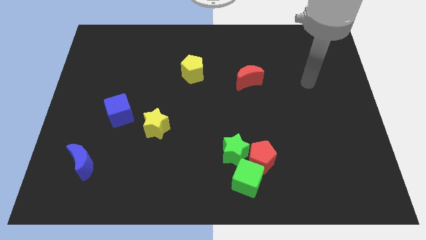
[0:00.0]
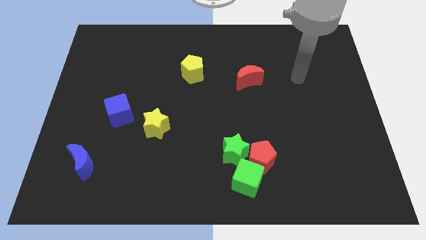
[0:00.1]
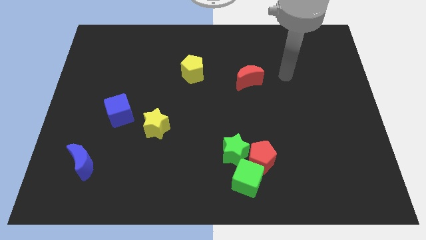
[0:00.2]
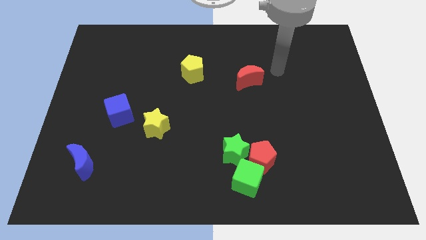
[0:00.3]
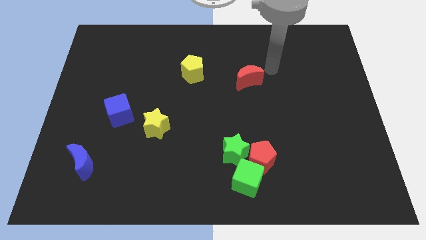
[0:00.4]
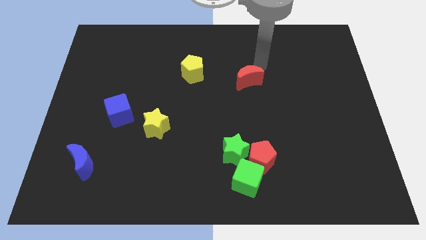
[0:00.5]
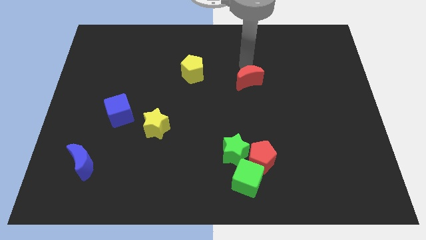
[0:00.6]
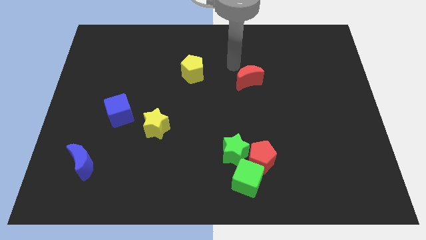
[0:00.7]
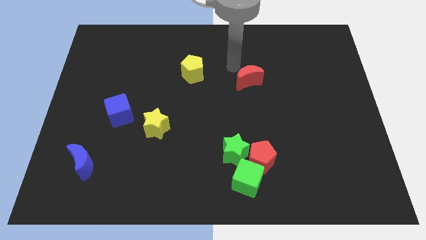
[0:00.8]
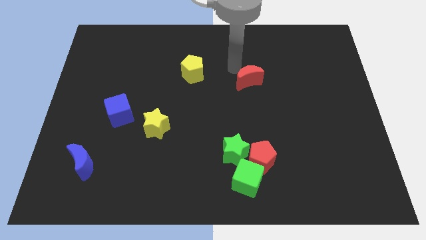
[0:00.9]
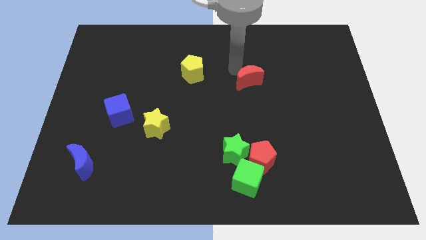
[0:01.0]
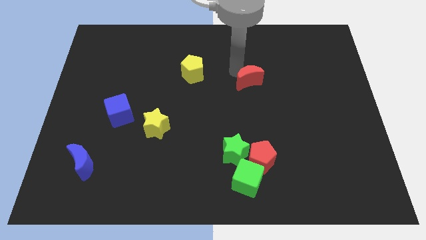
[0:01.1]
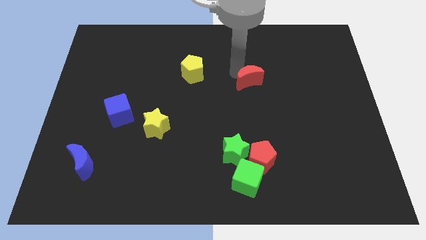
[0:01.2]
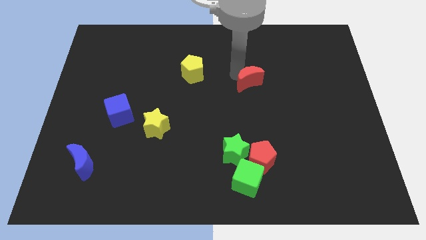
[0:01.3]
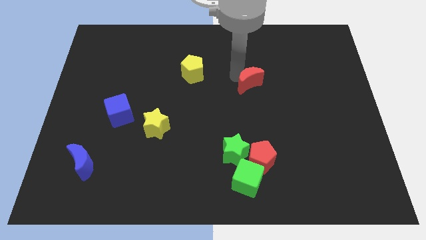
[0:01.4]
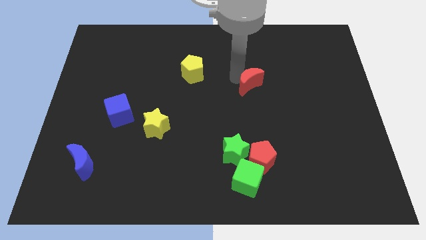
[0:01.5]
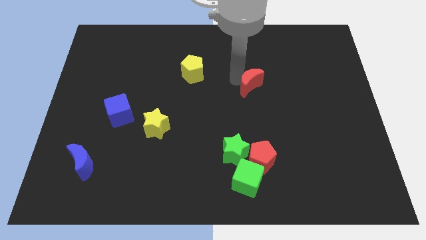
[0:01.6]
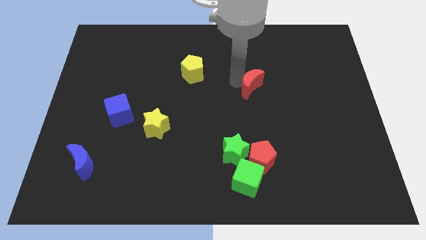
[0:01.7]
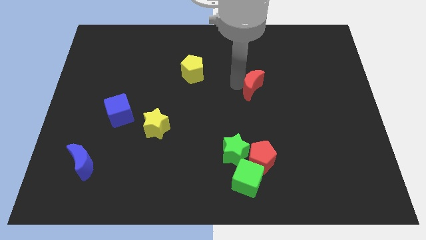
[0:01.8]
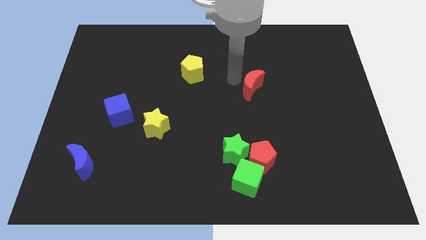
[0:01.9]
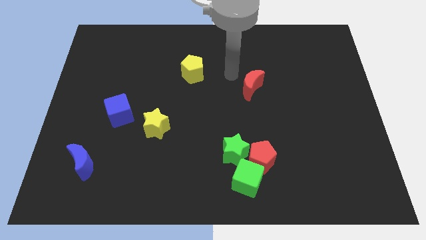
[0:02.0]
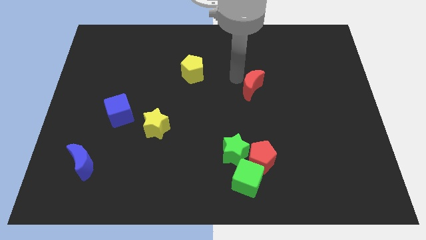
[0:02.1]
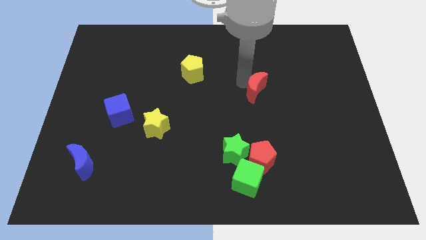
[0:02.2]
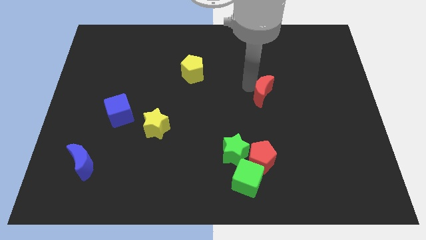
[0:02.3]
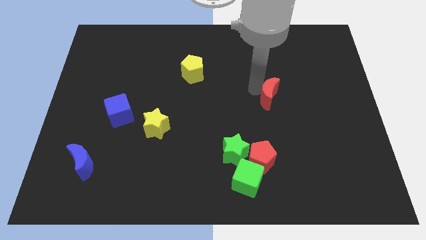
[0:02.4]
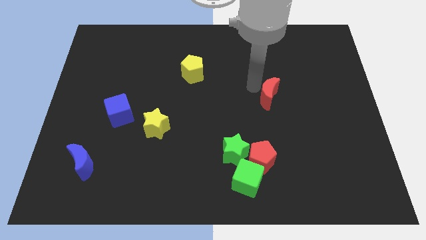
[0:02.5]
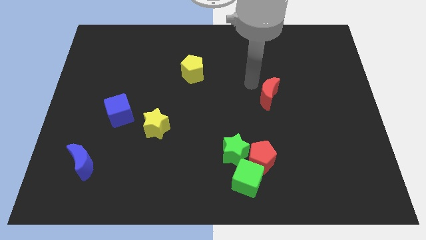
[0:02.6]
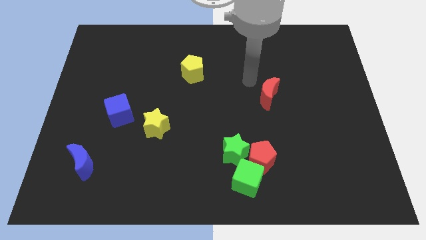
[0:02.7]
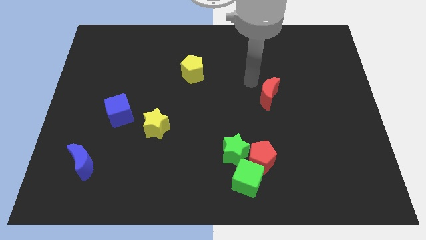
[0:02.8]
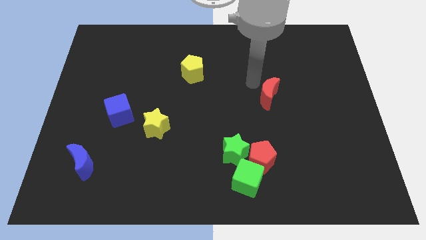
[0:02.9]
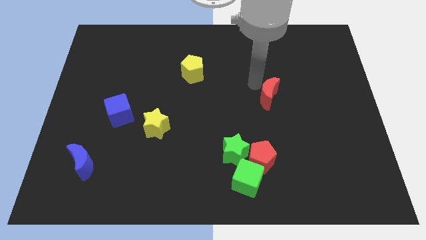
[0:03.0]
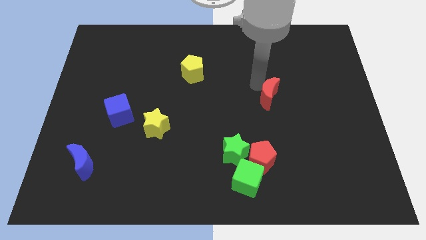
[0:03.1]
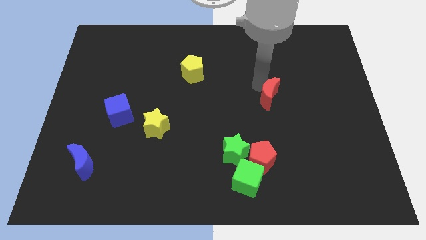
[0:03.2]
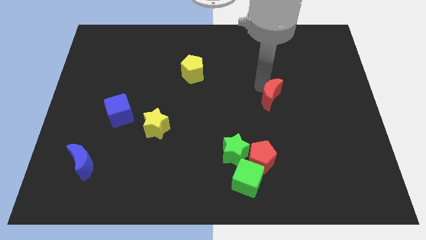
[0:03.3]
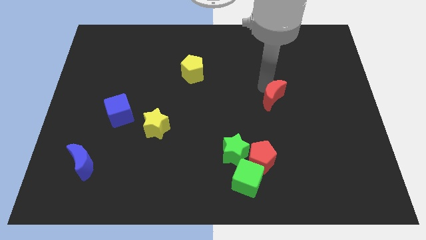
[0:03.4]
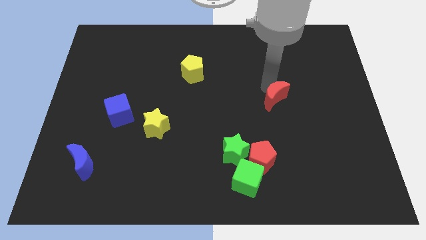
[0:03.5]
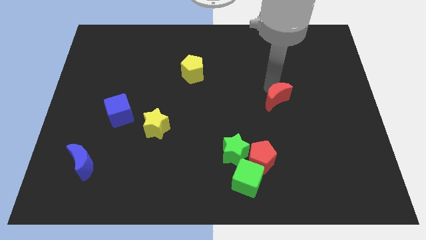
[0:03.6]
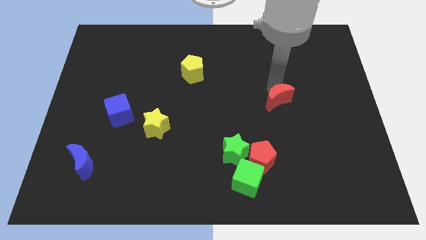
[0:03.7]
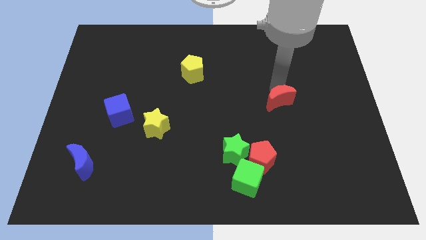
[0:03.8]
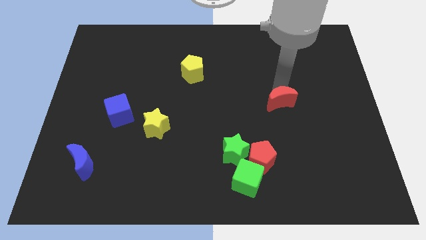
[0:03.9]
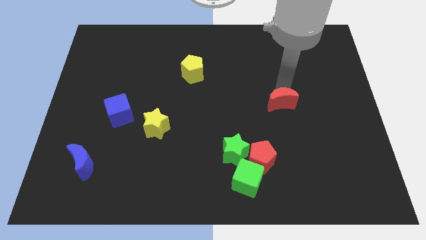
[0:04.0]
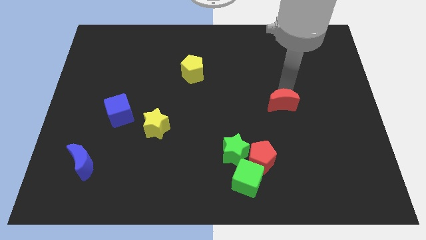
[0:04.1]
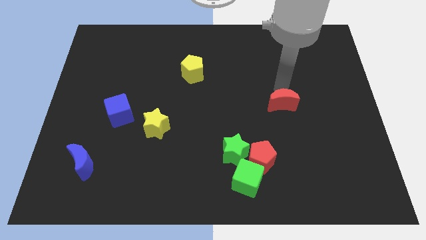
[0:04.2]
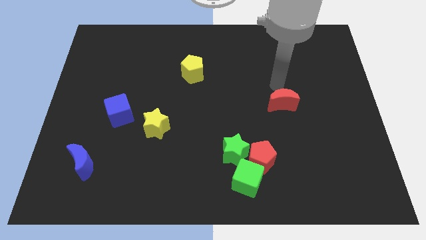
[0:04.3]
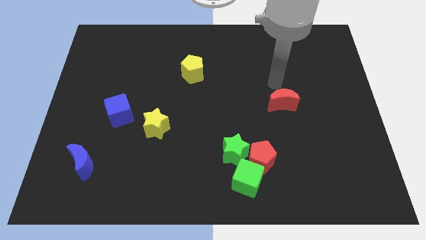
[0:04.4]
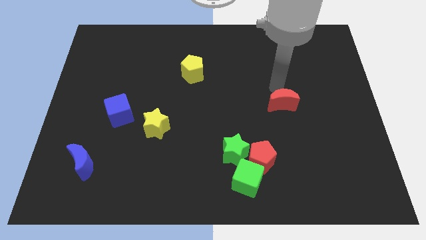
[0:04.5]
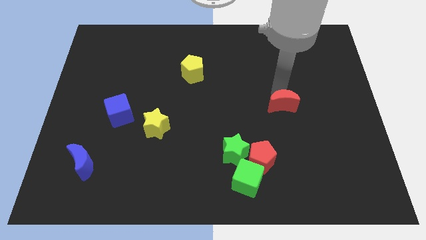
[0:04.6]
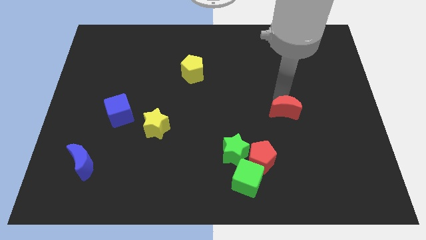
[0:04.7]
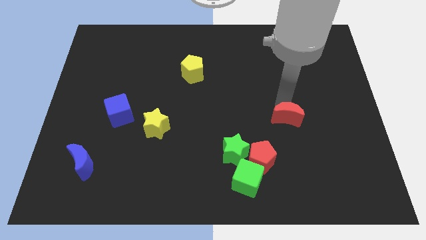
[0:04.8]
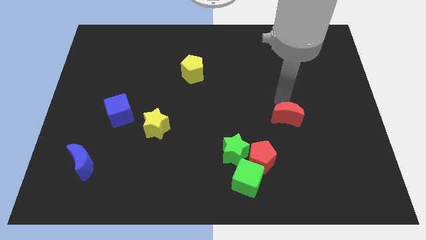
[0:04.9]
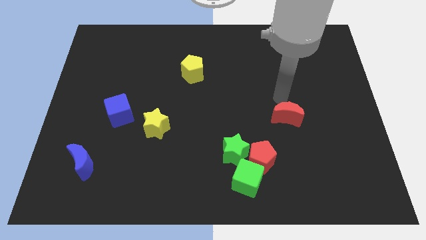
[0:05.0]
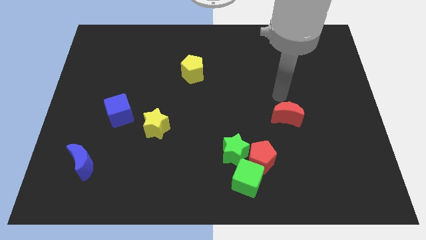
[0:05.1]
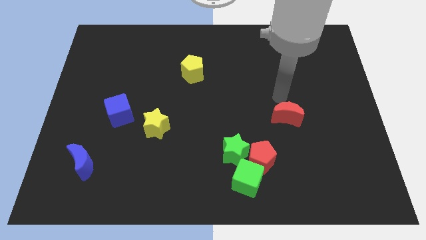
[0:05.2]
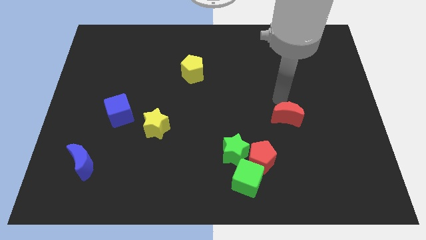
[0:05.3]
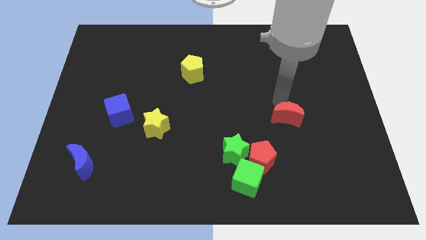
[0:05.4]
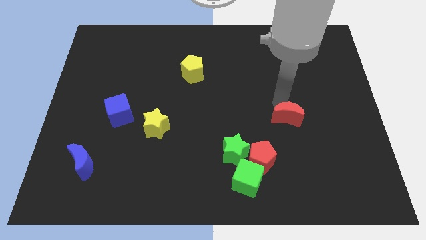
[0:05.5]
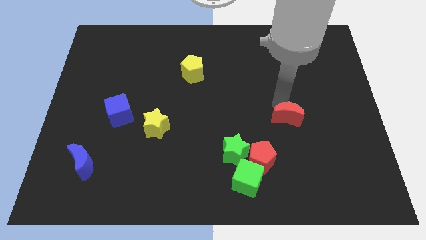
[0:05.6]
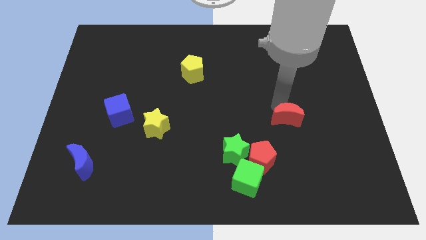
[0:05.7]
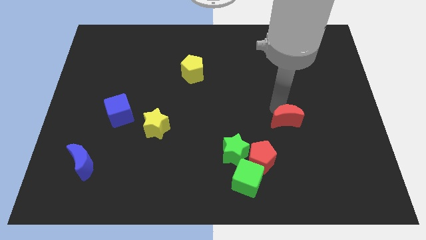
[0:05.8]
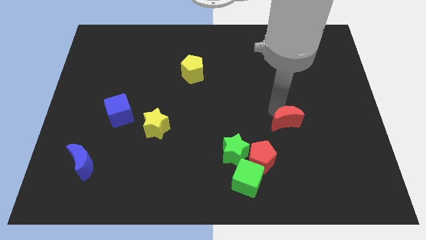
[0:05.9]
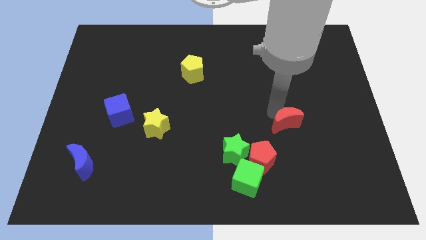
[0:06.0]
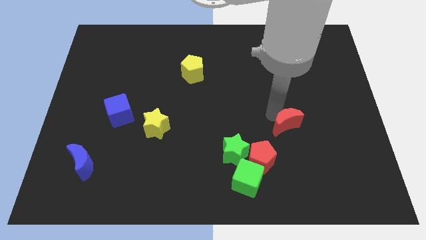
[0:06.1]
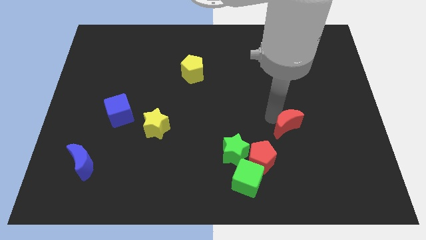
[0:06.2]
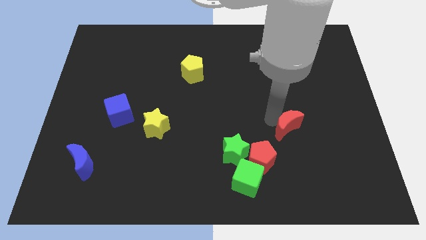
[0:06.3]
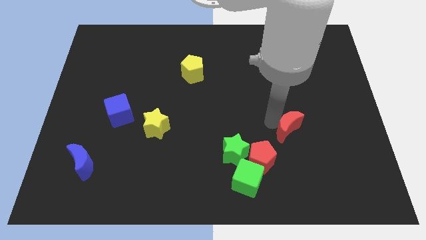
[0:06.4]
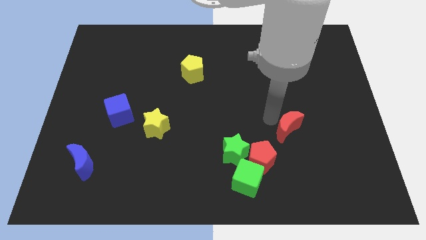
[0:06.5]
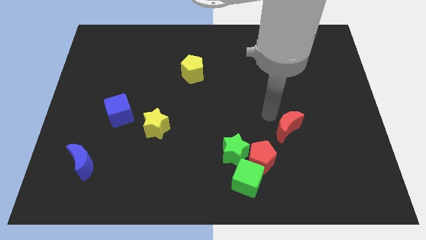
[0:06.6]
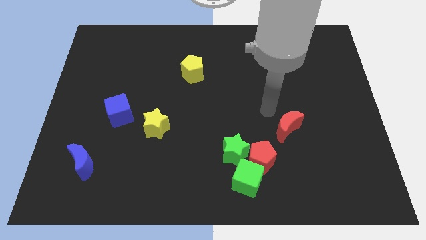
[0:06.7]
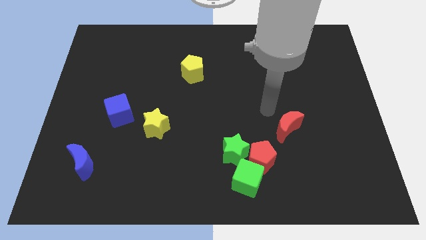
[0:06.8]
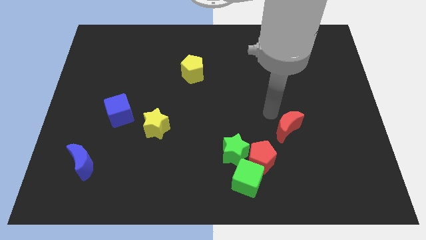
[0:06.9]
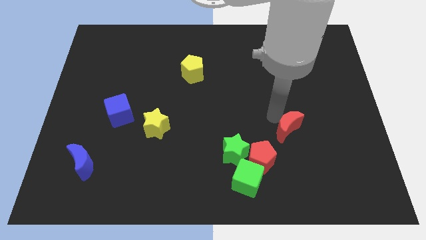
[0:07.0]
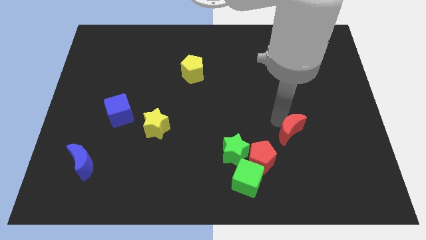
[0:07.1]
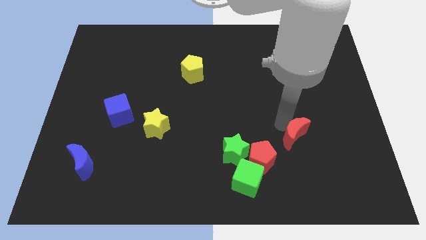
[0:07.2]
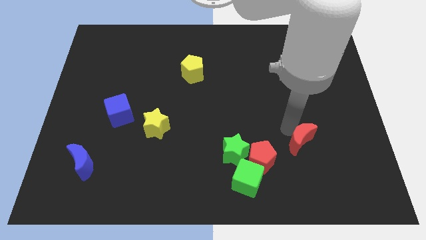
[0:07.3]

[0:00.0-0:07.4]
slide the red moon right of the red pentagon

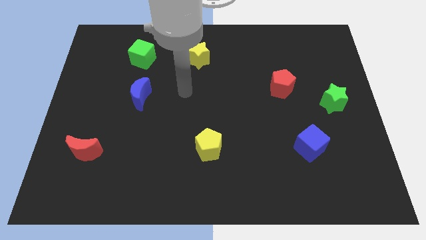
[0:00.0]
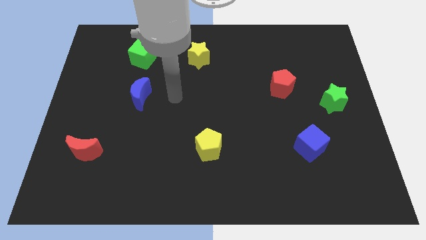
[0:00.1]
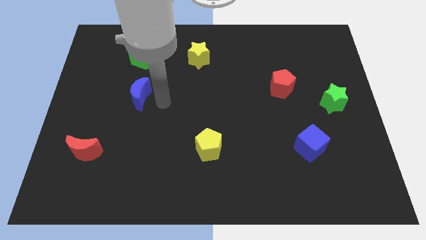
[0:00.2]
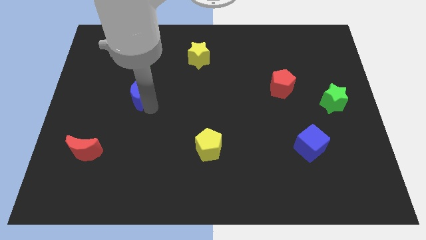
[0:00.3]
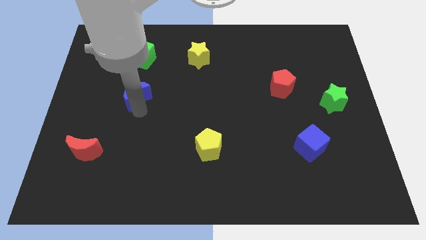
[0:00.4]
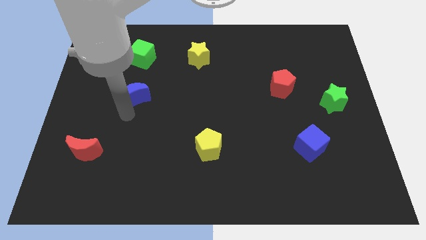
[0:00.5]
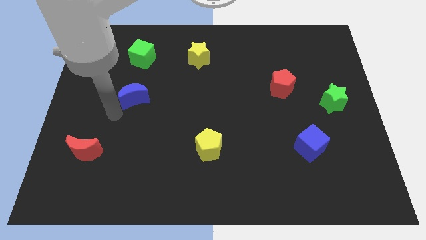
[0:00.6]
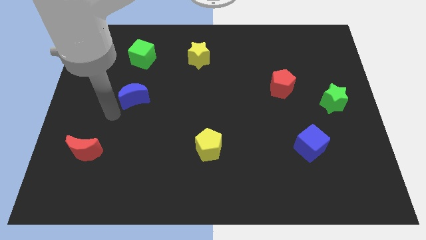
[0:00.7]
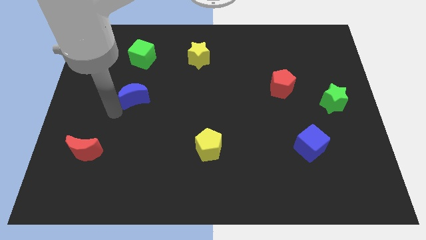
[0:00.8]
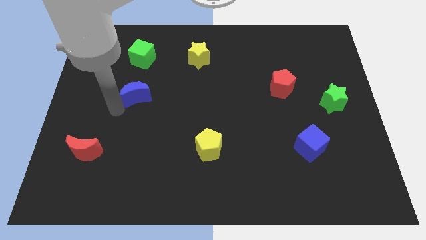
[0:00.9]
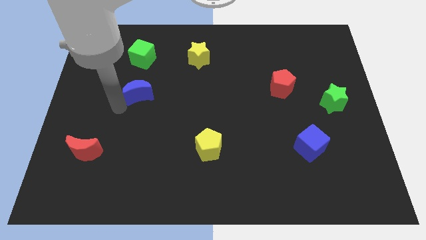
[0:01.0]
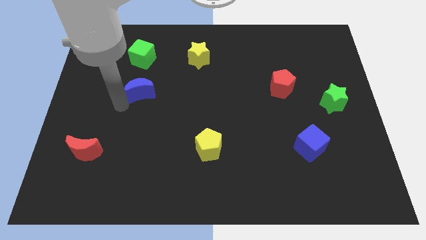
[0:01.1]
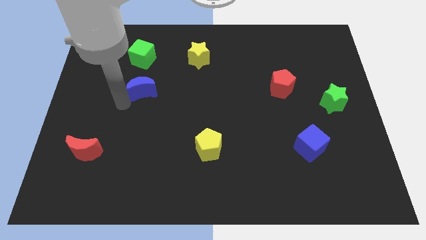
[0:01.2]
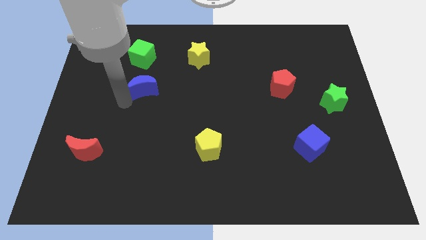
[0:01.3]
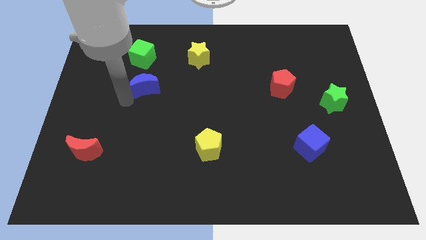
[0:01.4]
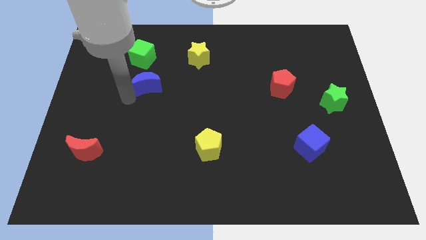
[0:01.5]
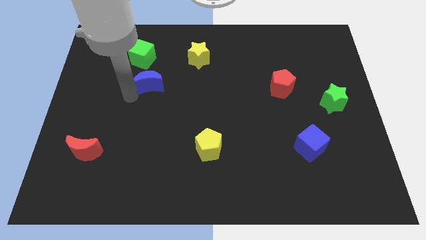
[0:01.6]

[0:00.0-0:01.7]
move the blue moon to the bottom right side of the green cube
